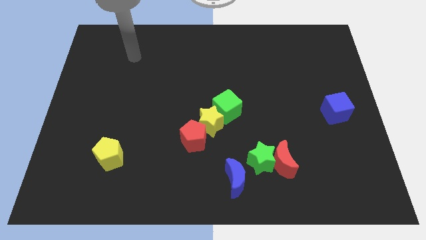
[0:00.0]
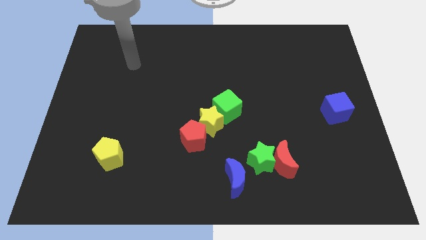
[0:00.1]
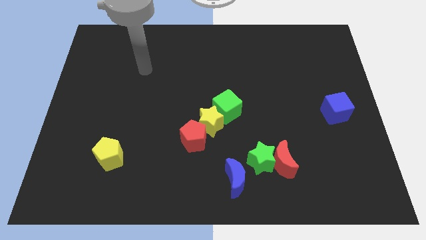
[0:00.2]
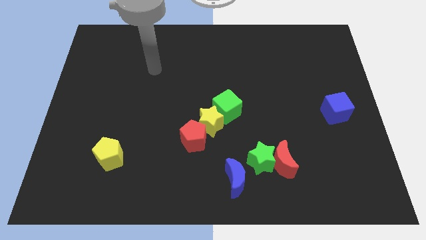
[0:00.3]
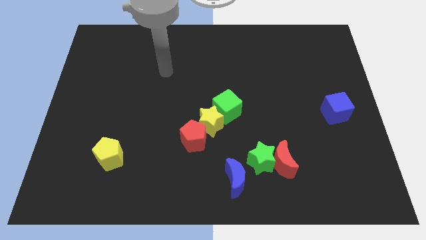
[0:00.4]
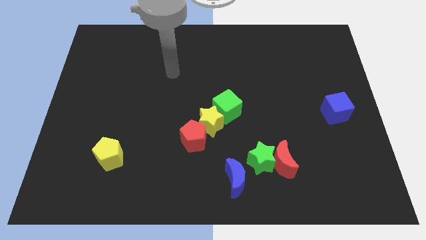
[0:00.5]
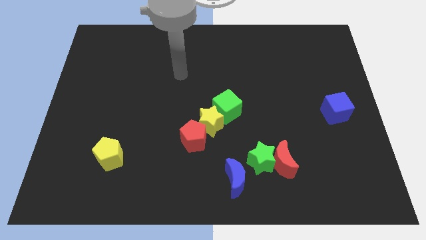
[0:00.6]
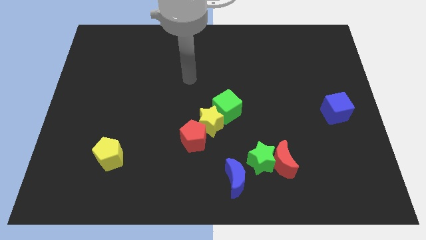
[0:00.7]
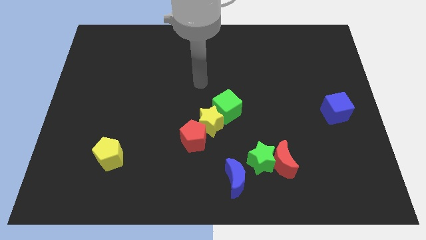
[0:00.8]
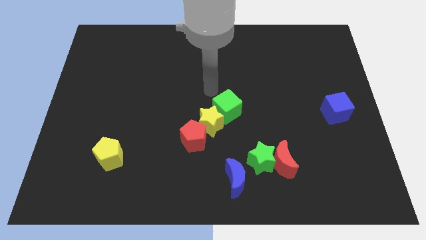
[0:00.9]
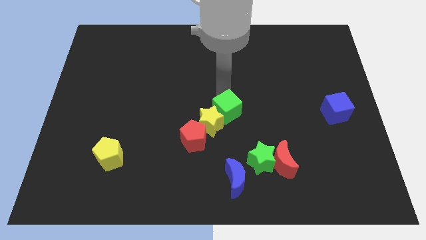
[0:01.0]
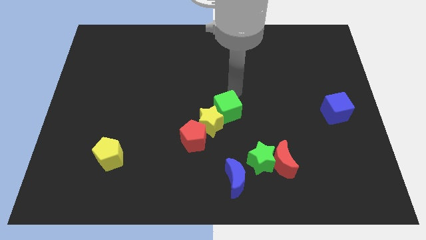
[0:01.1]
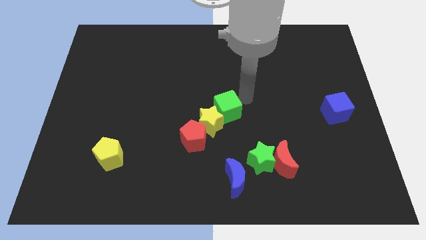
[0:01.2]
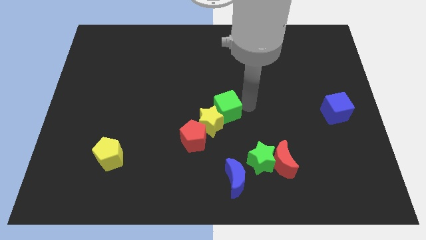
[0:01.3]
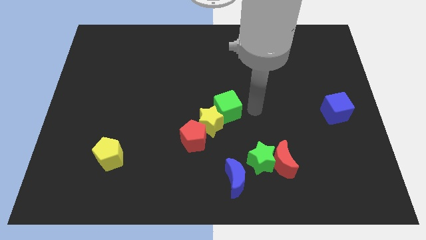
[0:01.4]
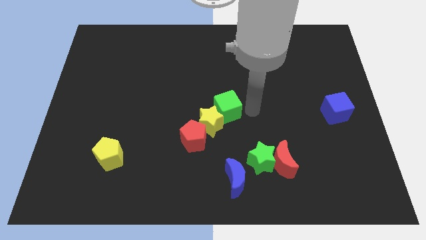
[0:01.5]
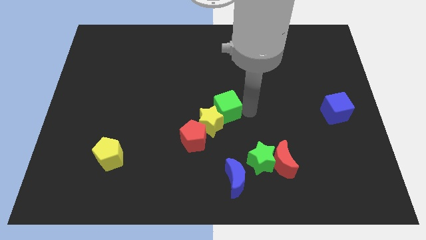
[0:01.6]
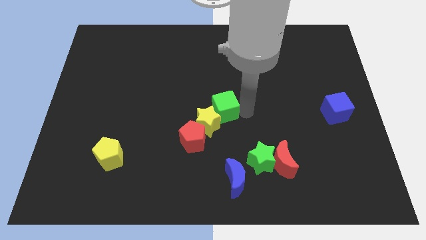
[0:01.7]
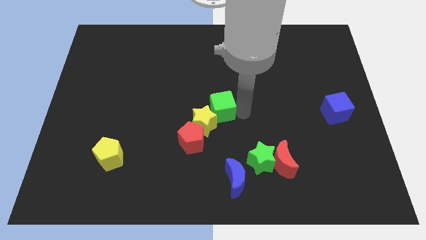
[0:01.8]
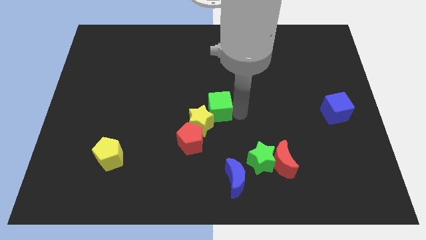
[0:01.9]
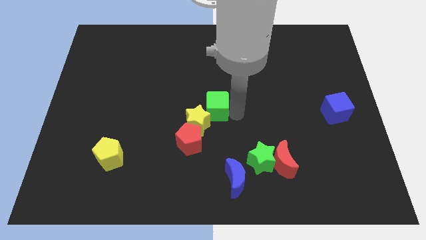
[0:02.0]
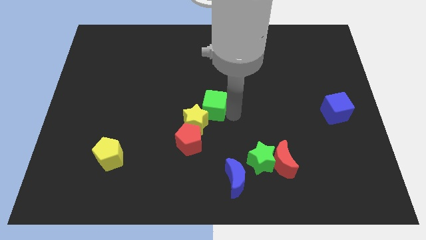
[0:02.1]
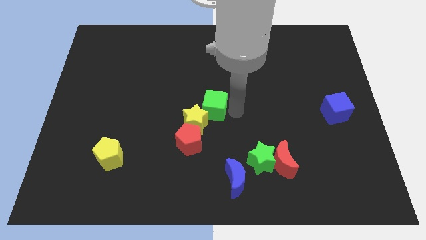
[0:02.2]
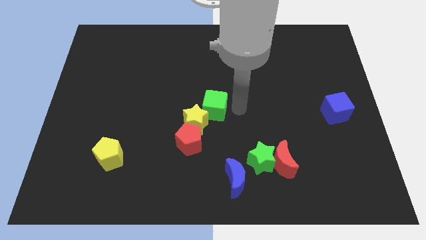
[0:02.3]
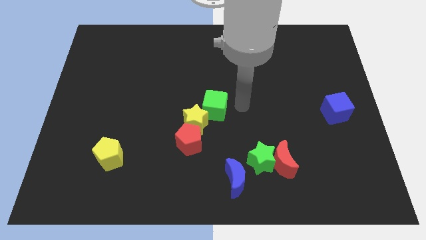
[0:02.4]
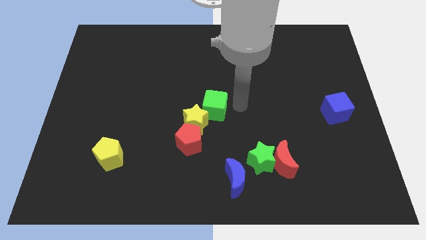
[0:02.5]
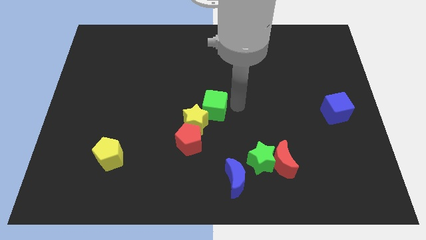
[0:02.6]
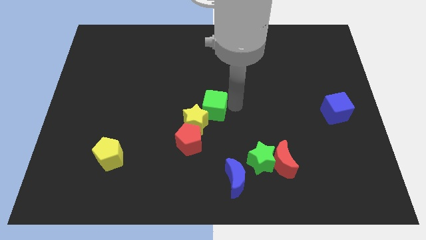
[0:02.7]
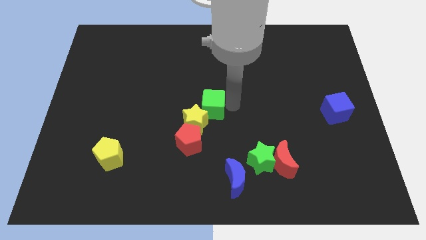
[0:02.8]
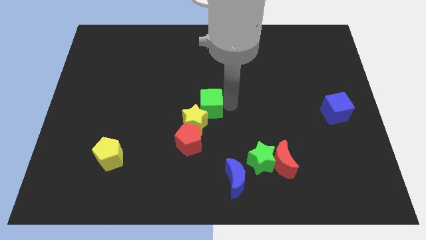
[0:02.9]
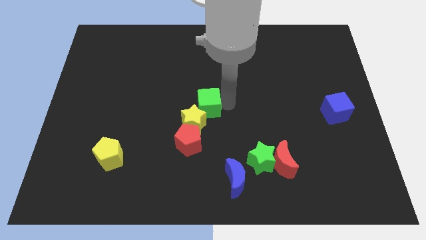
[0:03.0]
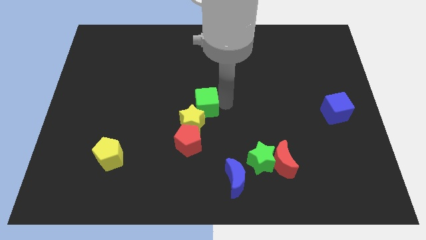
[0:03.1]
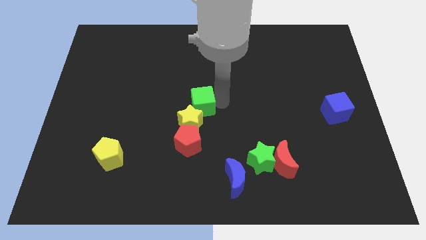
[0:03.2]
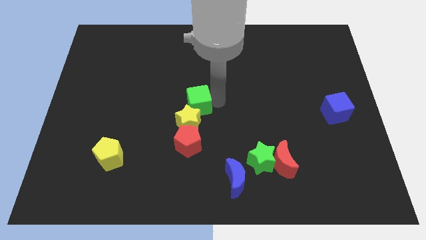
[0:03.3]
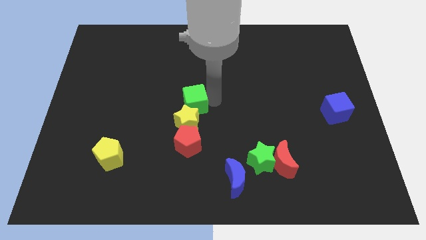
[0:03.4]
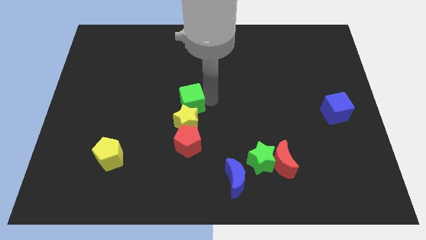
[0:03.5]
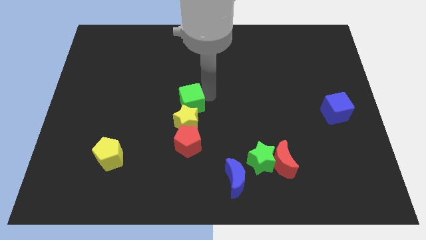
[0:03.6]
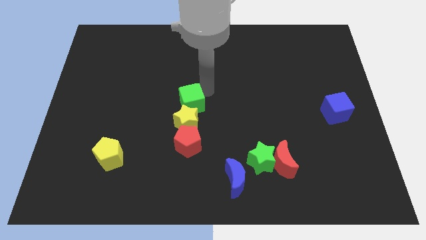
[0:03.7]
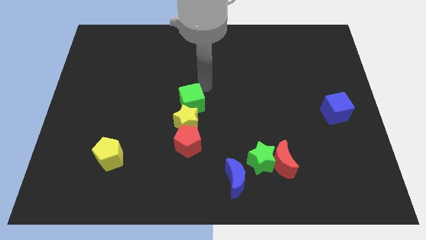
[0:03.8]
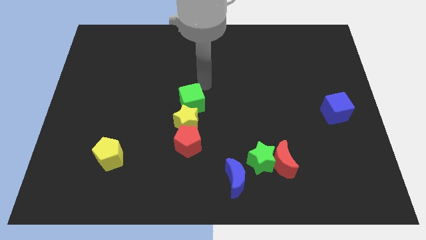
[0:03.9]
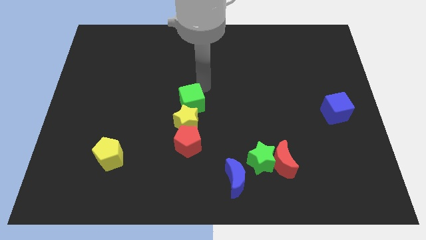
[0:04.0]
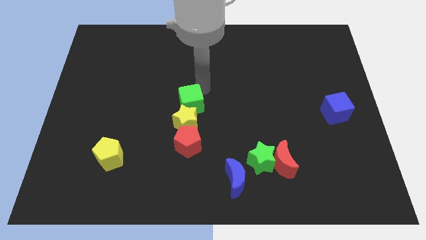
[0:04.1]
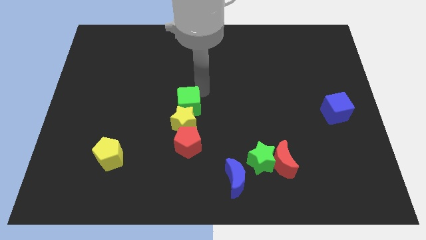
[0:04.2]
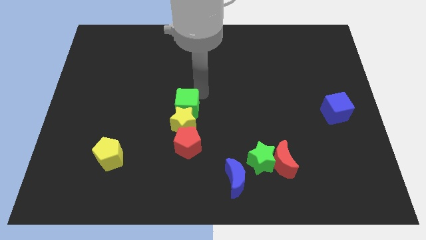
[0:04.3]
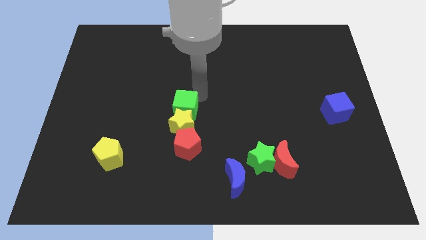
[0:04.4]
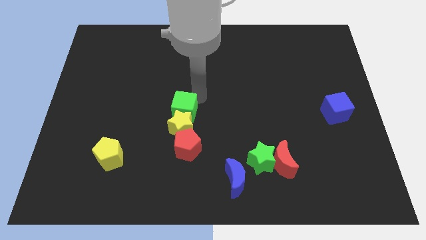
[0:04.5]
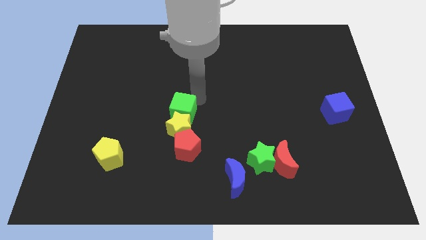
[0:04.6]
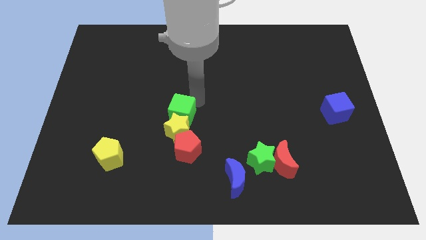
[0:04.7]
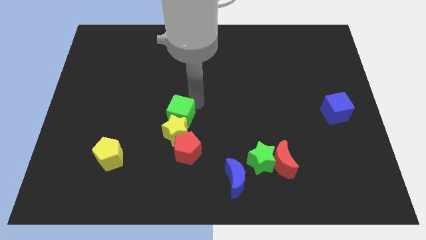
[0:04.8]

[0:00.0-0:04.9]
slightly push the green cube downwards and left

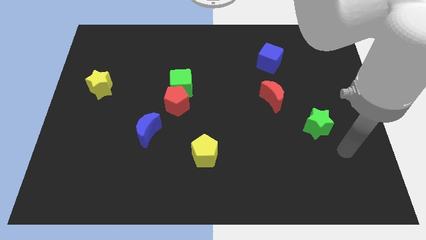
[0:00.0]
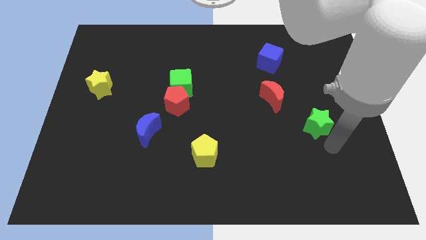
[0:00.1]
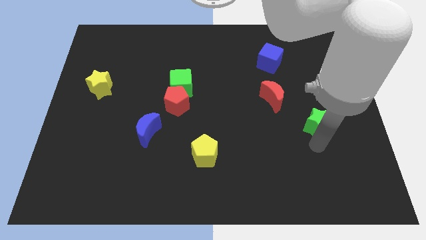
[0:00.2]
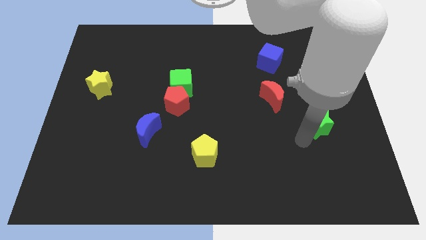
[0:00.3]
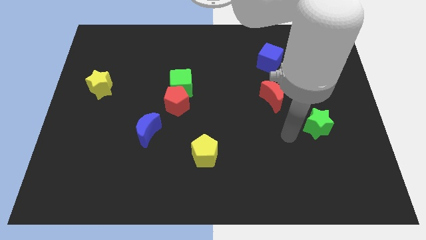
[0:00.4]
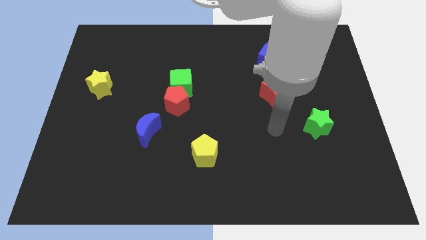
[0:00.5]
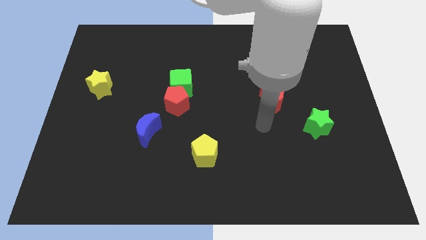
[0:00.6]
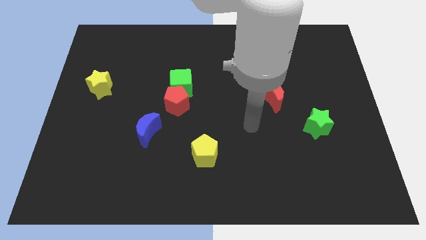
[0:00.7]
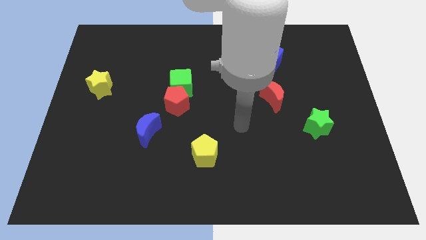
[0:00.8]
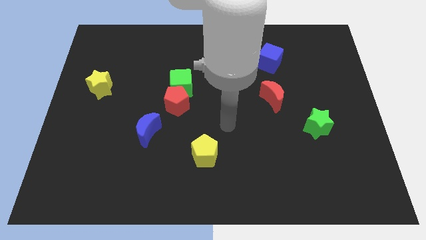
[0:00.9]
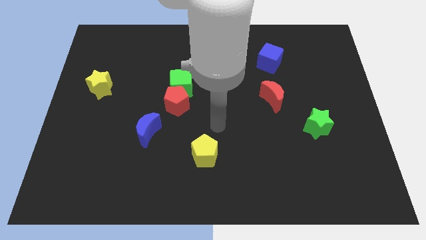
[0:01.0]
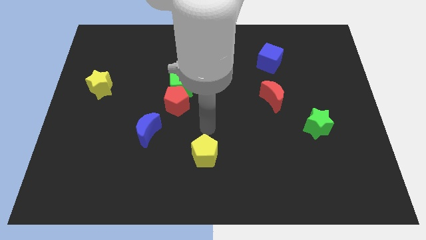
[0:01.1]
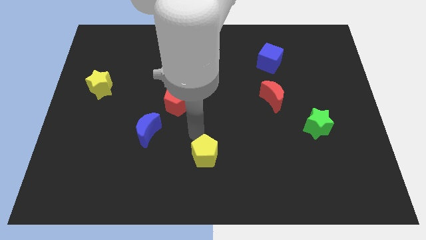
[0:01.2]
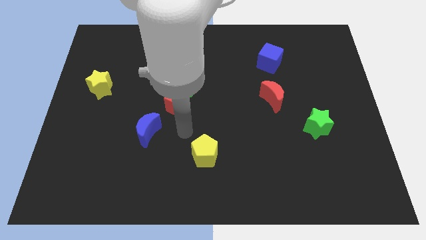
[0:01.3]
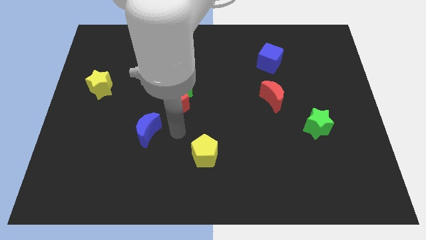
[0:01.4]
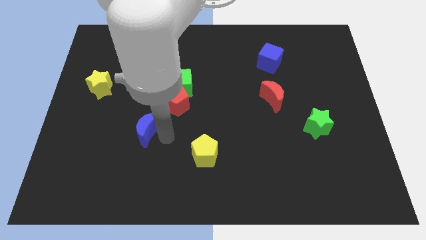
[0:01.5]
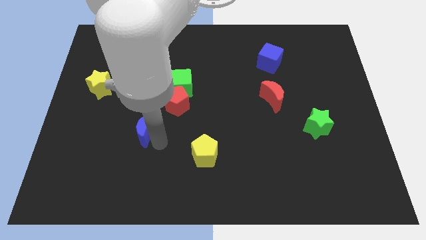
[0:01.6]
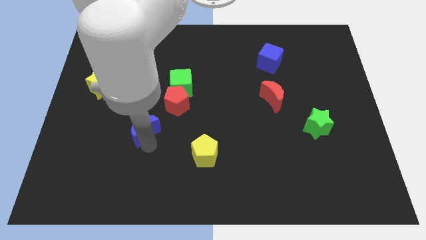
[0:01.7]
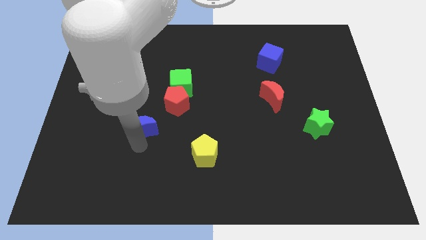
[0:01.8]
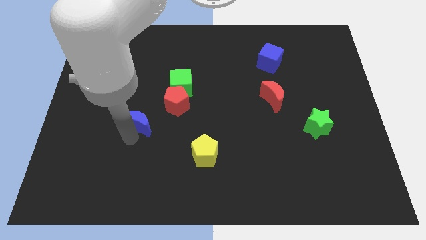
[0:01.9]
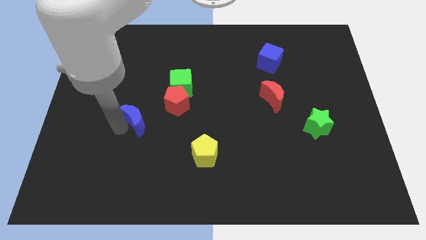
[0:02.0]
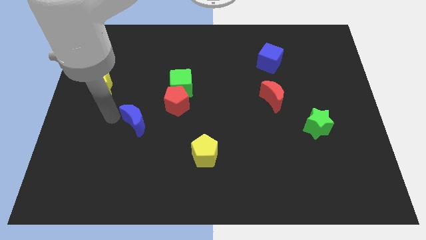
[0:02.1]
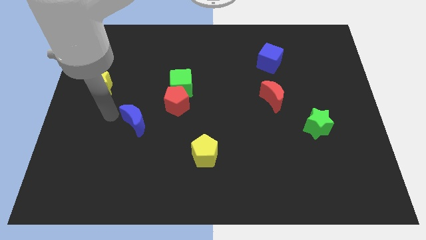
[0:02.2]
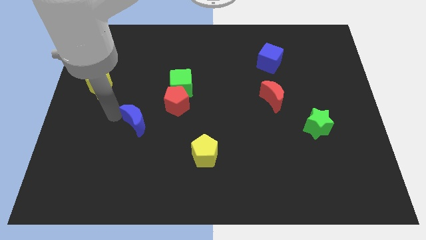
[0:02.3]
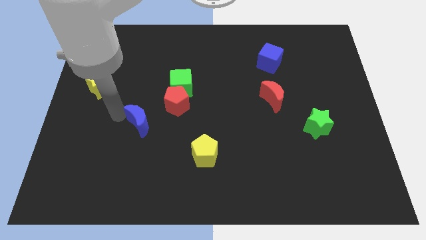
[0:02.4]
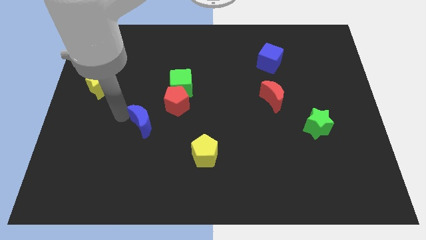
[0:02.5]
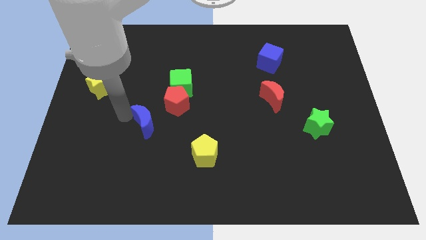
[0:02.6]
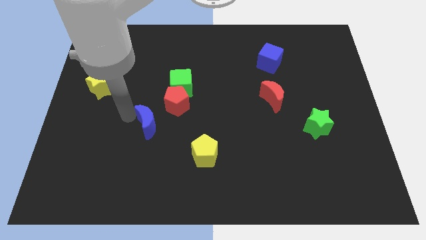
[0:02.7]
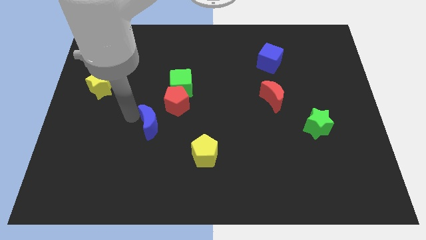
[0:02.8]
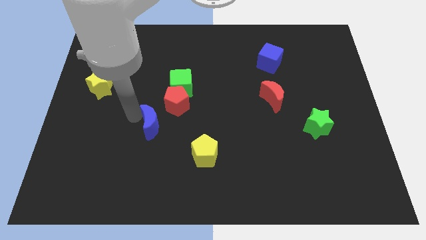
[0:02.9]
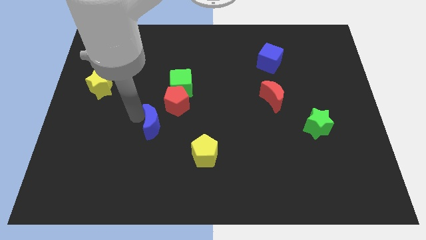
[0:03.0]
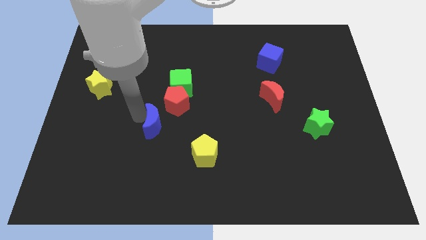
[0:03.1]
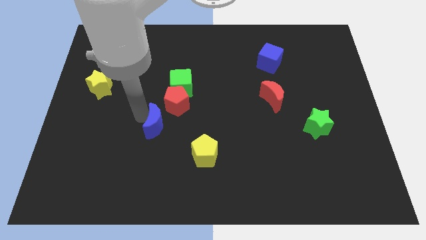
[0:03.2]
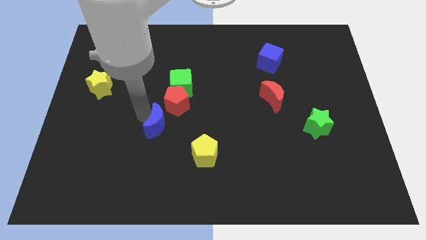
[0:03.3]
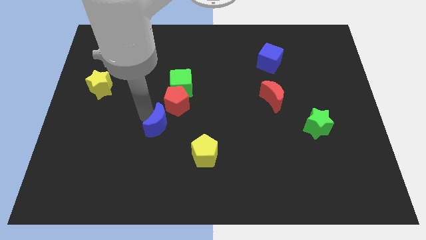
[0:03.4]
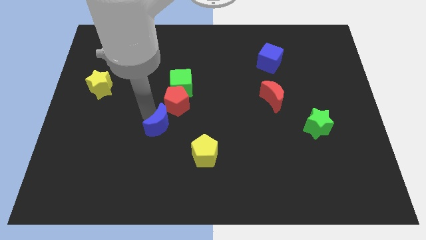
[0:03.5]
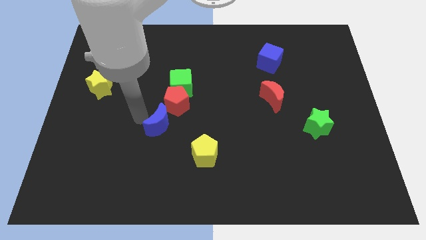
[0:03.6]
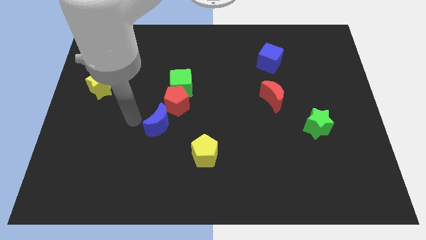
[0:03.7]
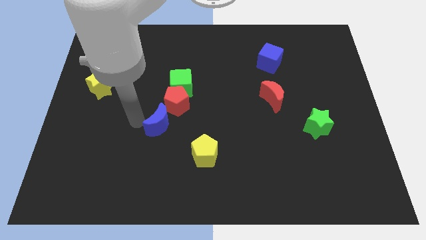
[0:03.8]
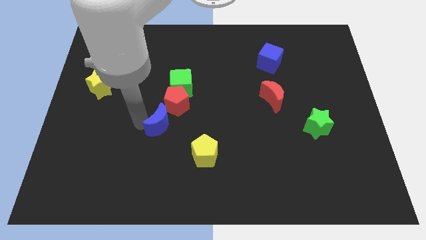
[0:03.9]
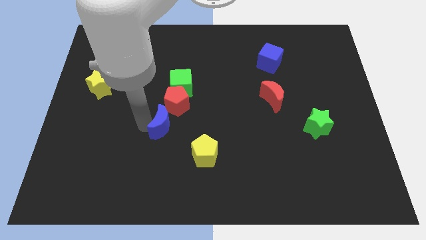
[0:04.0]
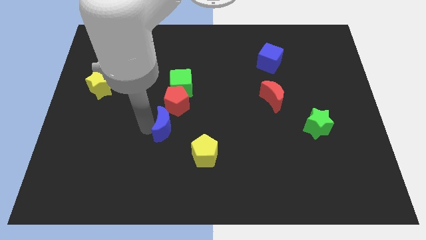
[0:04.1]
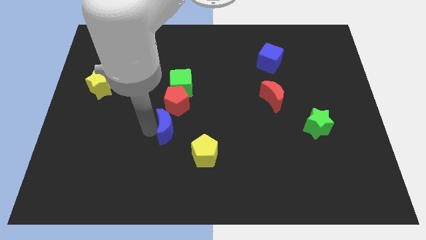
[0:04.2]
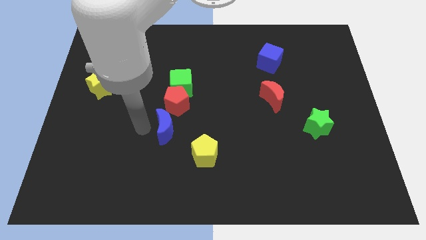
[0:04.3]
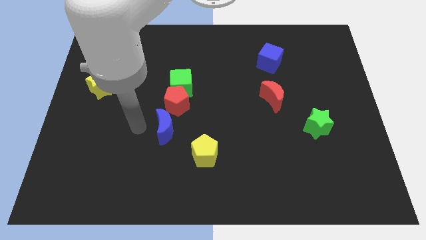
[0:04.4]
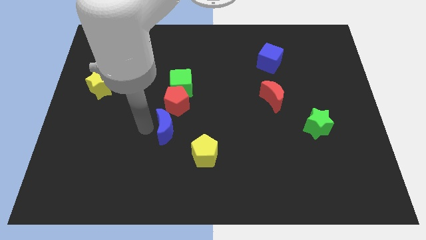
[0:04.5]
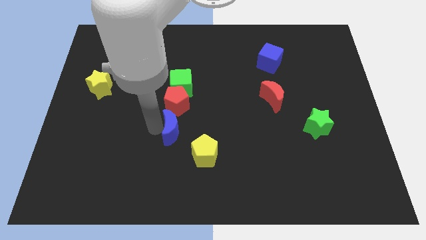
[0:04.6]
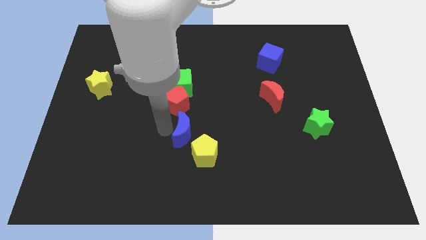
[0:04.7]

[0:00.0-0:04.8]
slide the blue moon right somewhat
